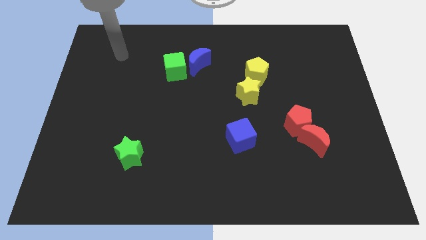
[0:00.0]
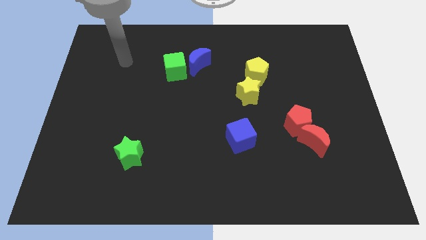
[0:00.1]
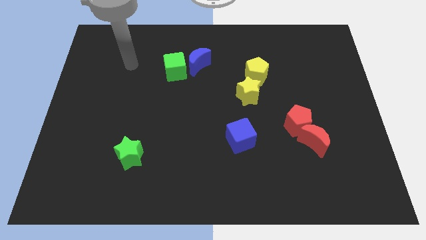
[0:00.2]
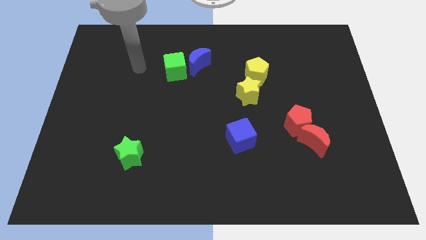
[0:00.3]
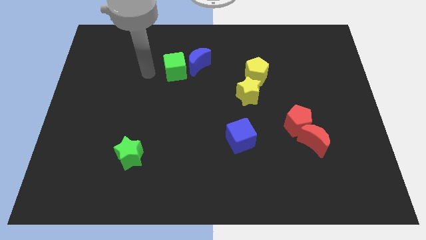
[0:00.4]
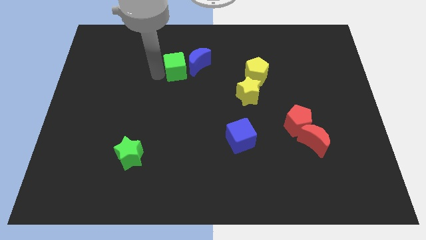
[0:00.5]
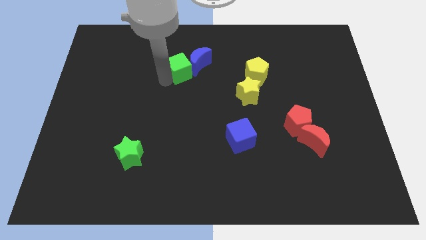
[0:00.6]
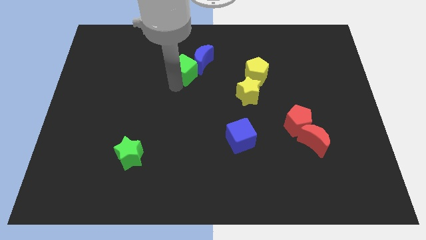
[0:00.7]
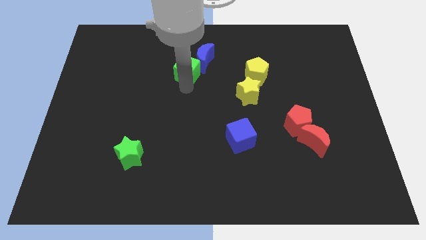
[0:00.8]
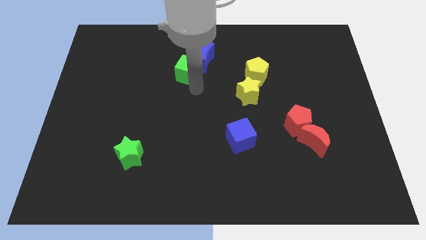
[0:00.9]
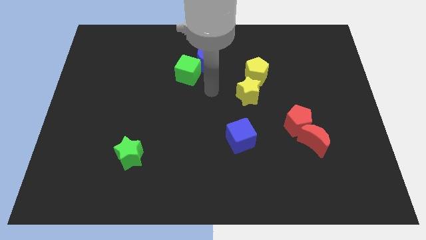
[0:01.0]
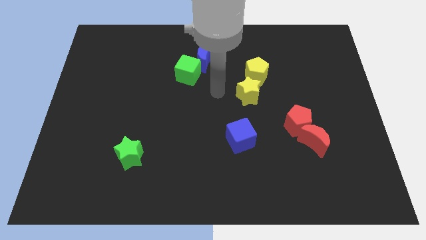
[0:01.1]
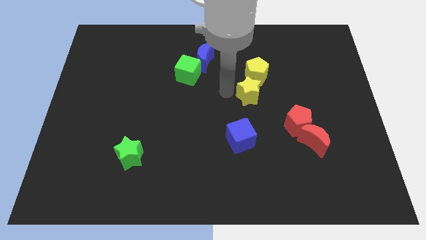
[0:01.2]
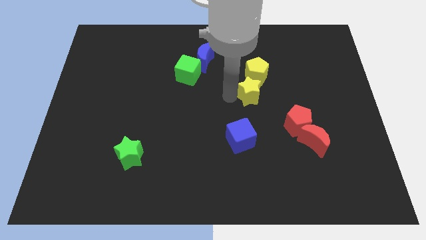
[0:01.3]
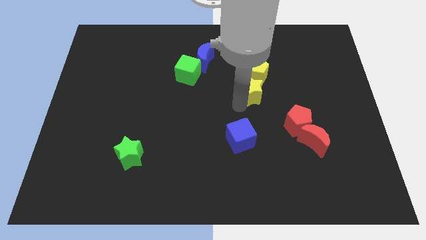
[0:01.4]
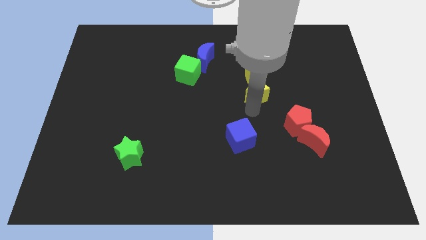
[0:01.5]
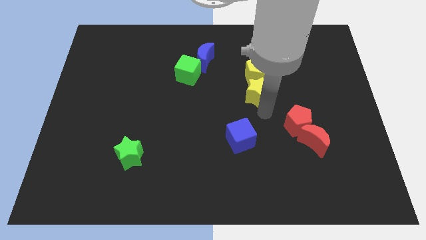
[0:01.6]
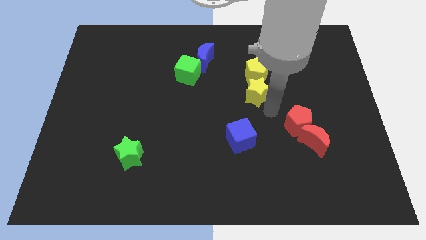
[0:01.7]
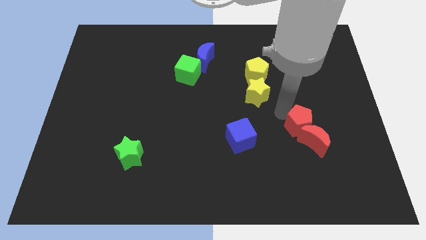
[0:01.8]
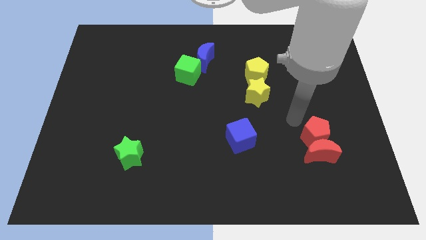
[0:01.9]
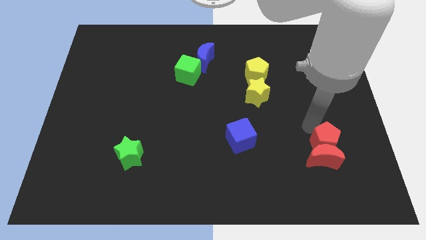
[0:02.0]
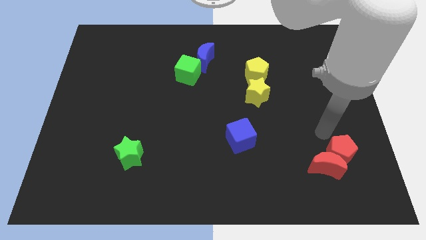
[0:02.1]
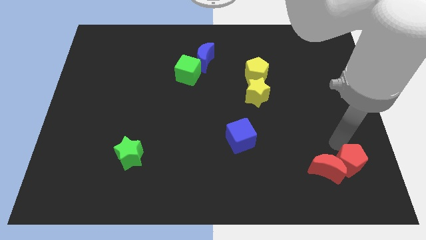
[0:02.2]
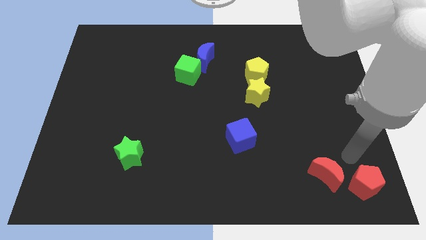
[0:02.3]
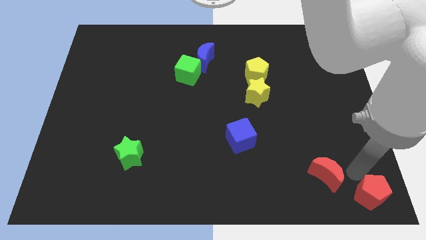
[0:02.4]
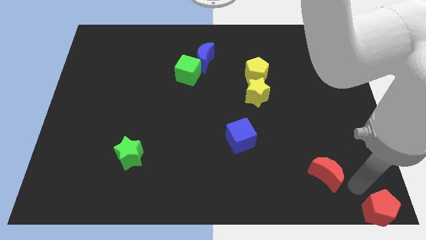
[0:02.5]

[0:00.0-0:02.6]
separate the red moon from the red pentagon

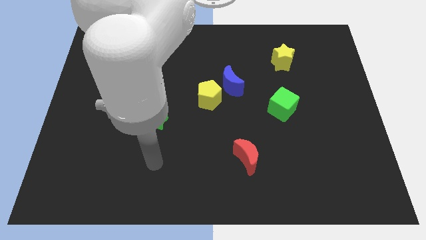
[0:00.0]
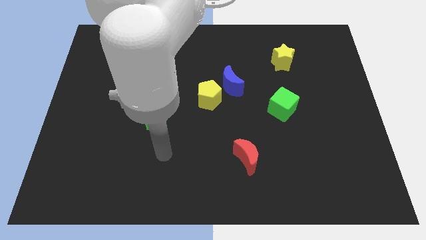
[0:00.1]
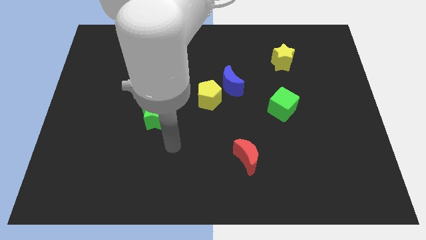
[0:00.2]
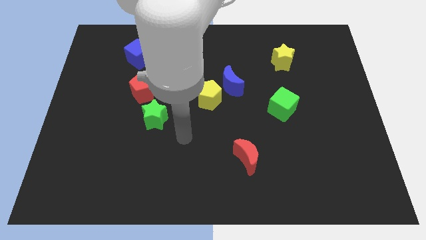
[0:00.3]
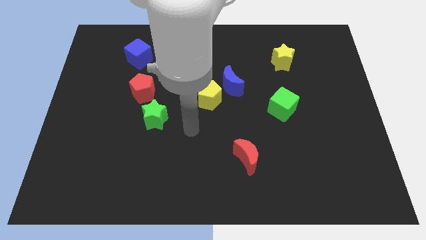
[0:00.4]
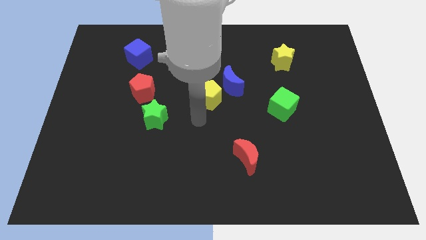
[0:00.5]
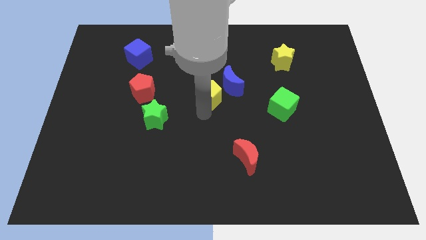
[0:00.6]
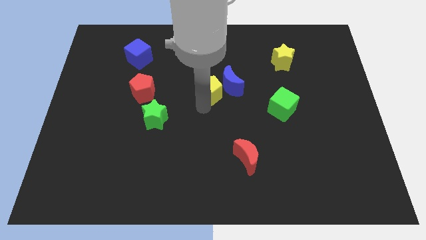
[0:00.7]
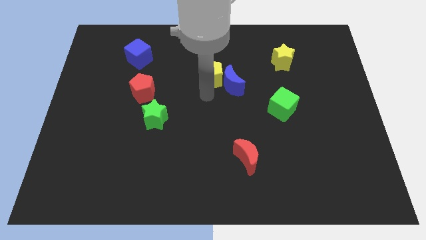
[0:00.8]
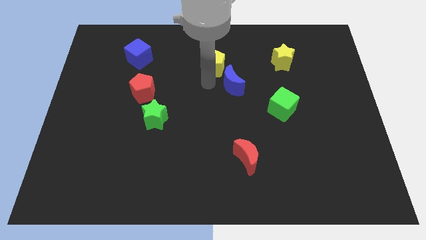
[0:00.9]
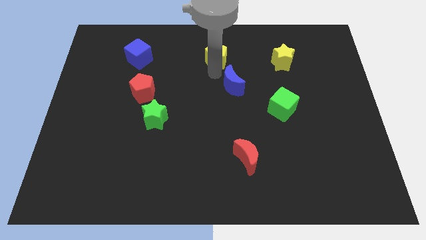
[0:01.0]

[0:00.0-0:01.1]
move the blue moon away from the yellow pentagon

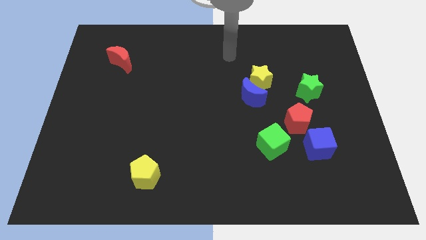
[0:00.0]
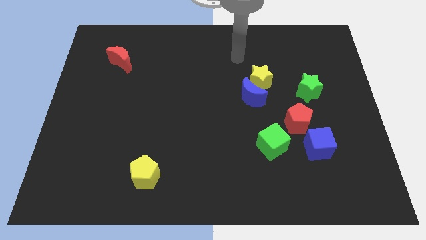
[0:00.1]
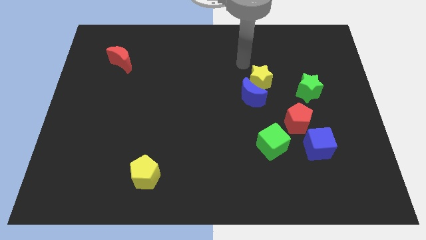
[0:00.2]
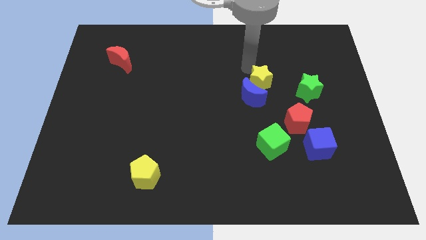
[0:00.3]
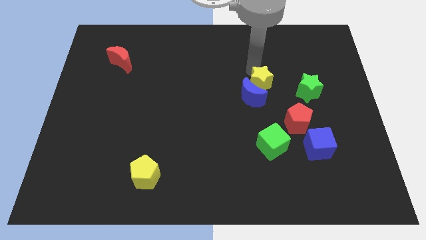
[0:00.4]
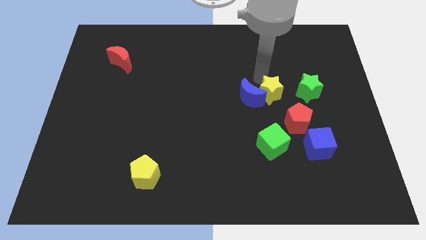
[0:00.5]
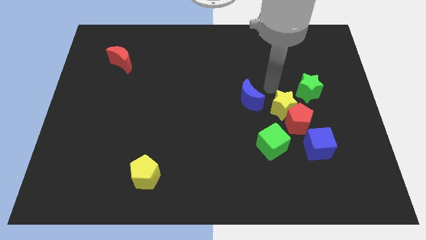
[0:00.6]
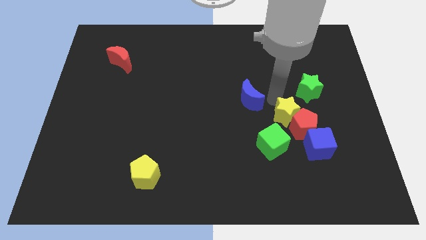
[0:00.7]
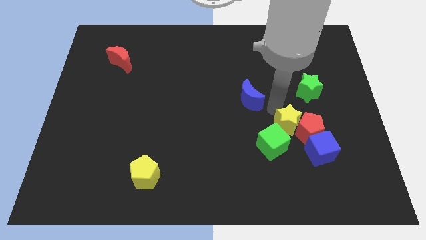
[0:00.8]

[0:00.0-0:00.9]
pull the blue moon apart from the yellow star

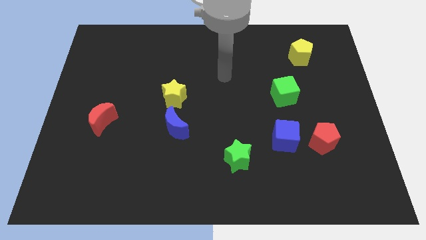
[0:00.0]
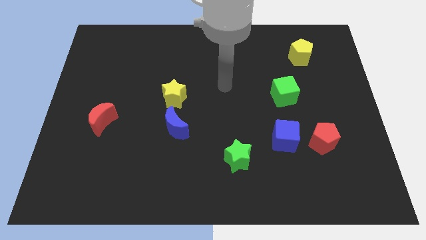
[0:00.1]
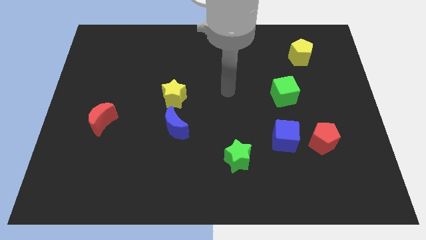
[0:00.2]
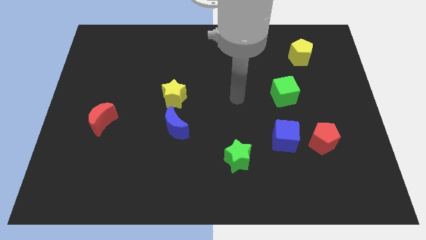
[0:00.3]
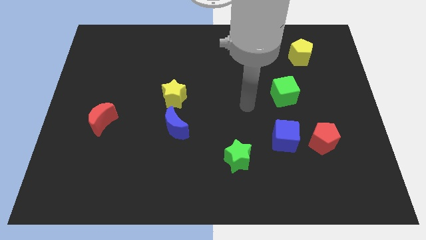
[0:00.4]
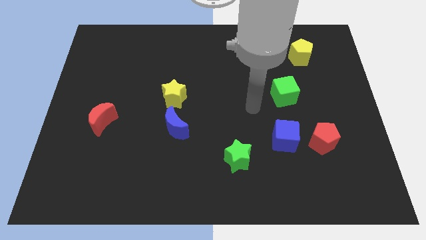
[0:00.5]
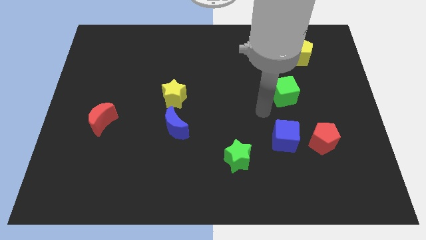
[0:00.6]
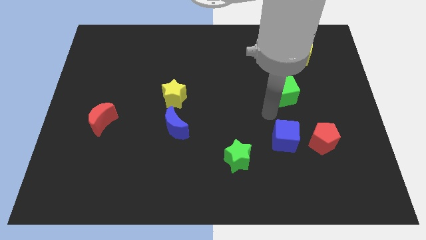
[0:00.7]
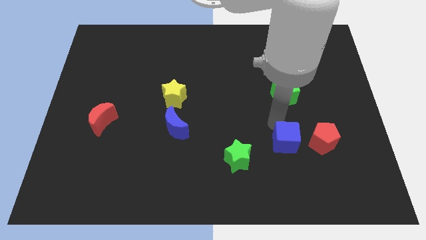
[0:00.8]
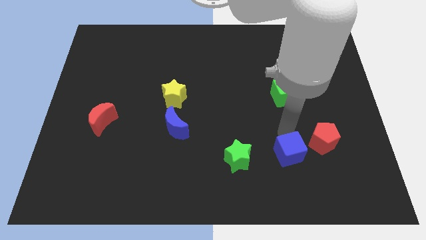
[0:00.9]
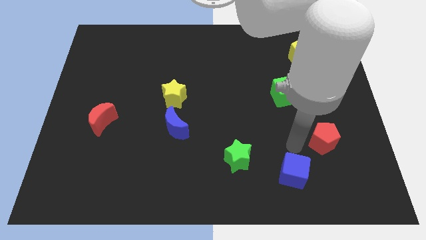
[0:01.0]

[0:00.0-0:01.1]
pull the red pentagon apart from the blue cube

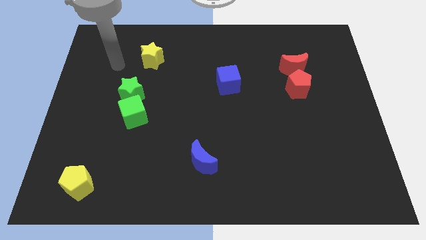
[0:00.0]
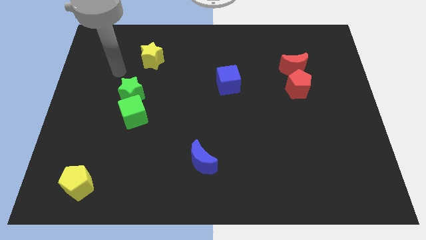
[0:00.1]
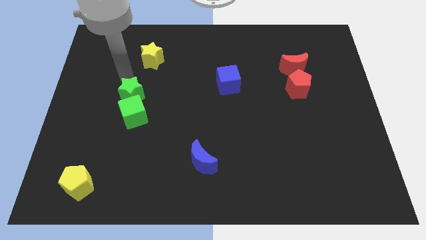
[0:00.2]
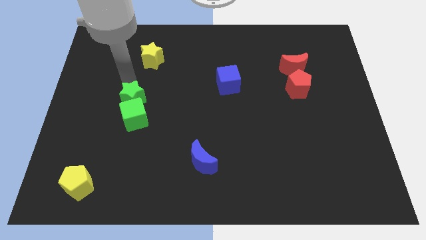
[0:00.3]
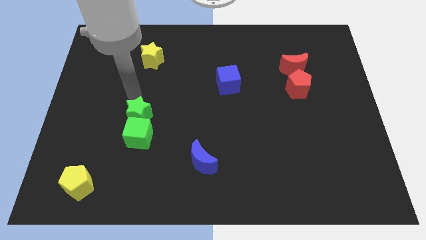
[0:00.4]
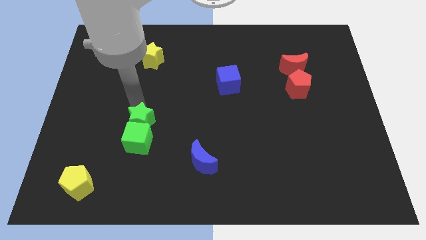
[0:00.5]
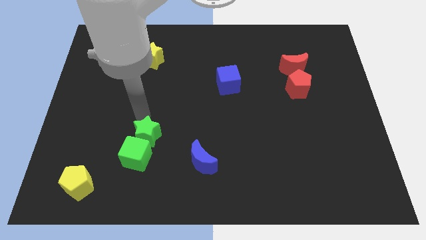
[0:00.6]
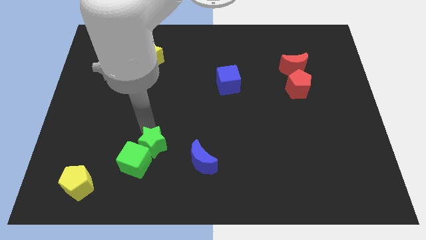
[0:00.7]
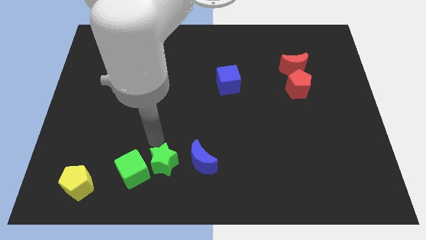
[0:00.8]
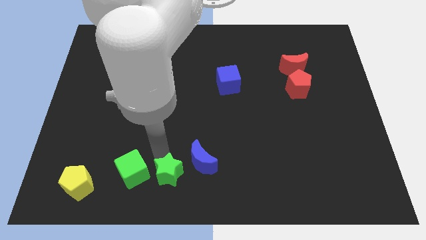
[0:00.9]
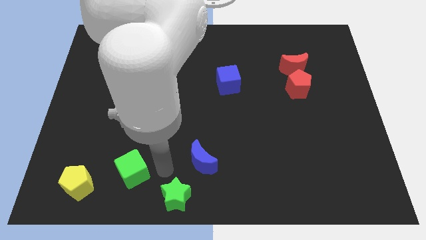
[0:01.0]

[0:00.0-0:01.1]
move the green cube away from the green star

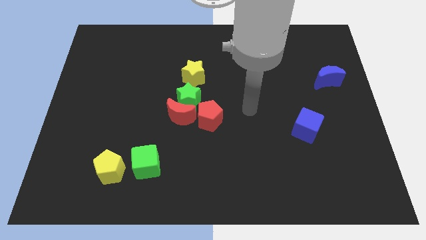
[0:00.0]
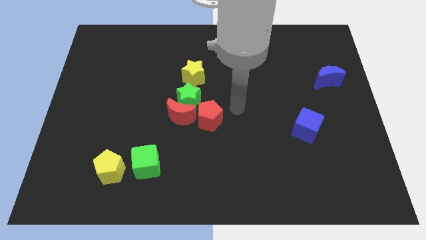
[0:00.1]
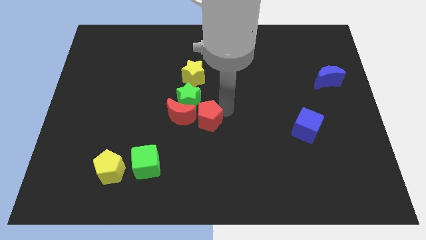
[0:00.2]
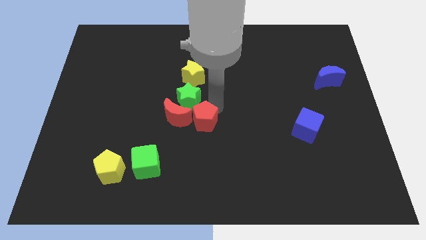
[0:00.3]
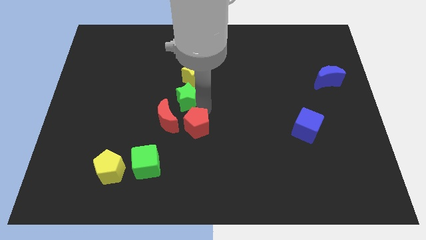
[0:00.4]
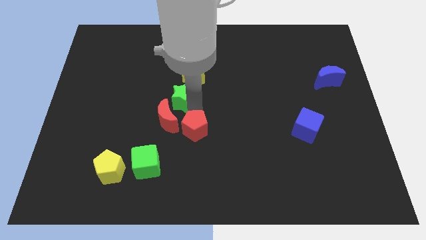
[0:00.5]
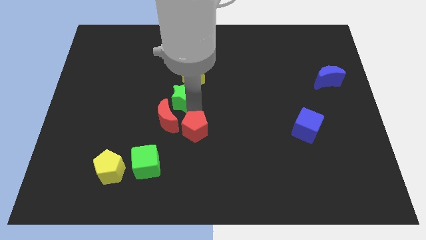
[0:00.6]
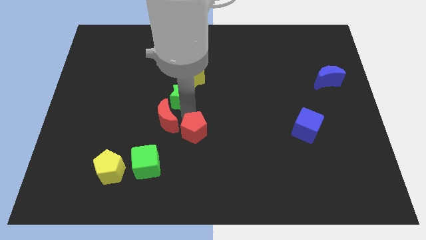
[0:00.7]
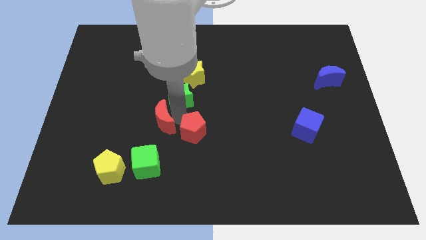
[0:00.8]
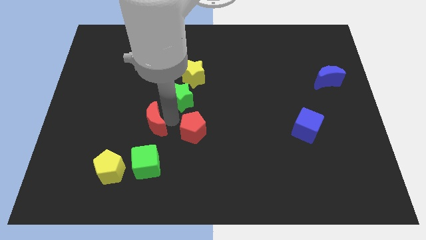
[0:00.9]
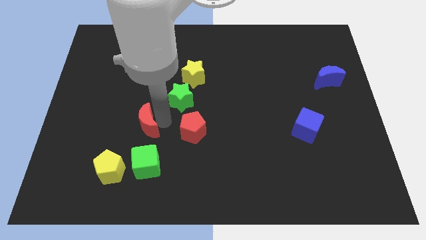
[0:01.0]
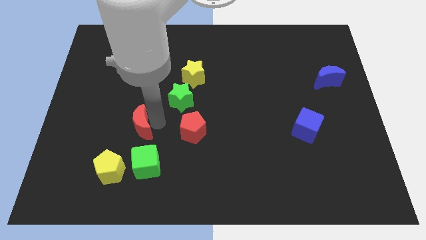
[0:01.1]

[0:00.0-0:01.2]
pull the red moon apart from the green star and red pentagon

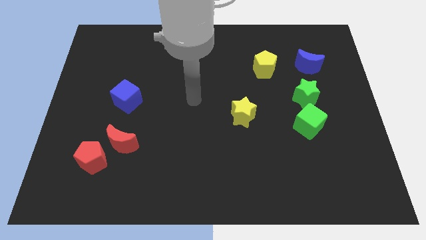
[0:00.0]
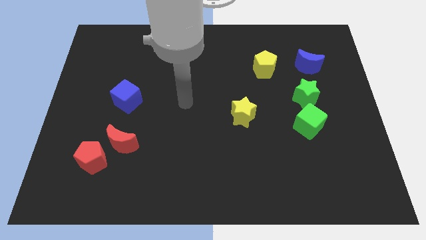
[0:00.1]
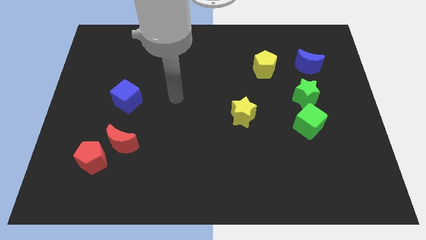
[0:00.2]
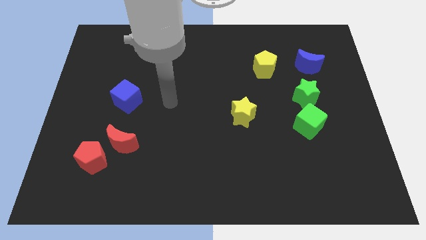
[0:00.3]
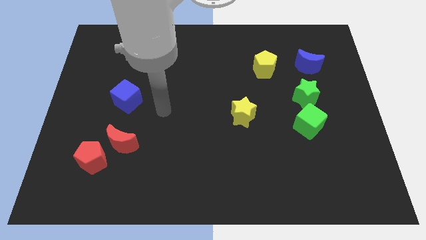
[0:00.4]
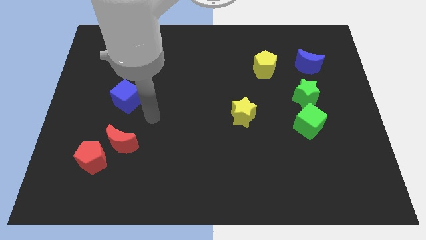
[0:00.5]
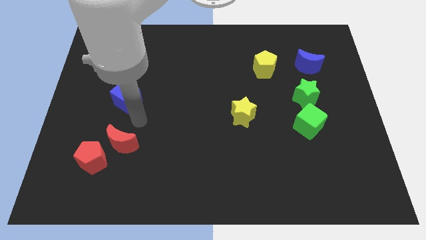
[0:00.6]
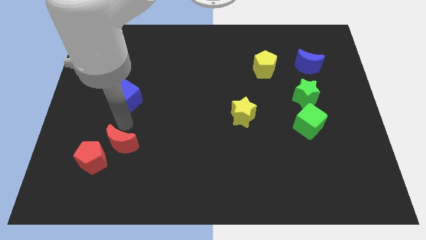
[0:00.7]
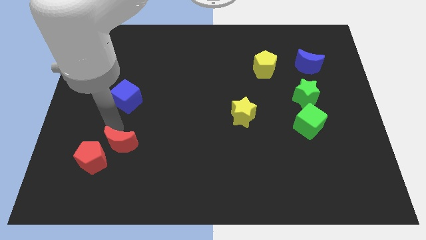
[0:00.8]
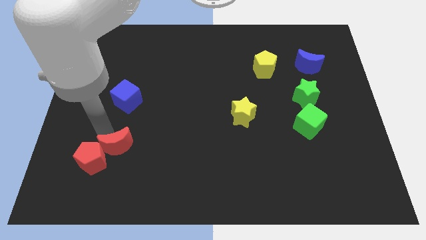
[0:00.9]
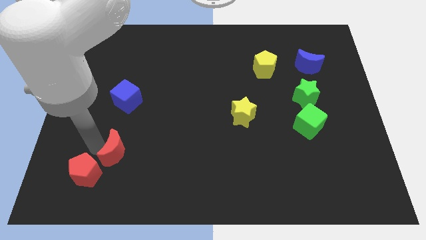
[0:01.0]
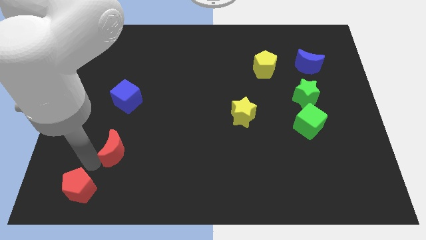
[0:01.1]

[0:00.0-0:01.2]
move the red moon away from the red pentagon
